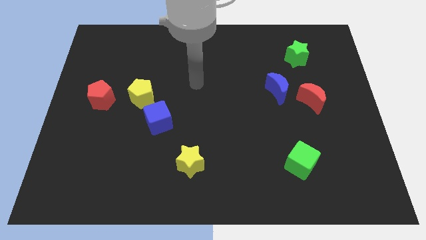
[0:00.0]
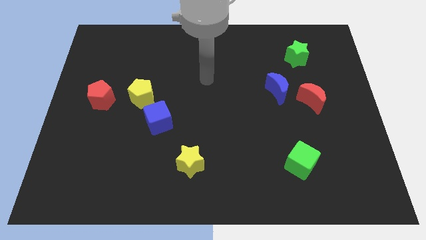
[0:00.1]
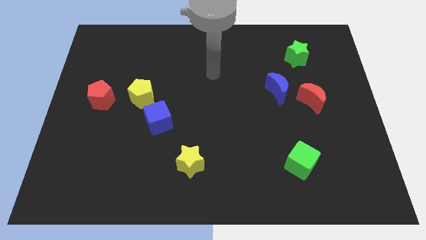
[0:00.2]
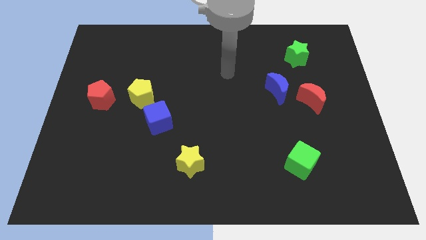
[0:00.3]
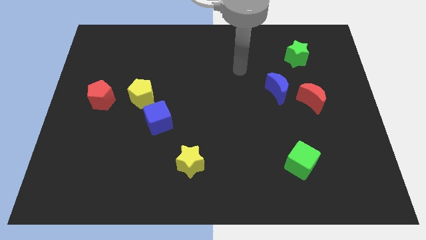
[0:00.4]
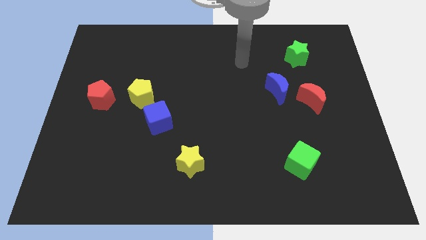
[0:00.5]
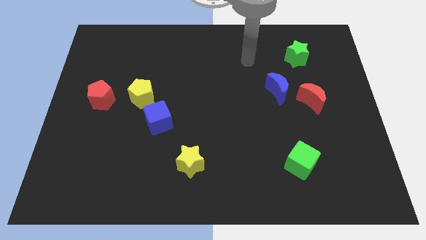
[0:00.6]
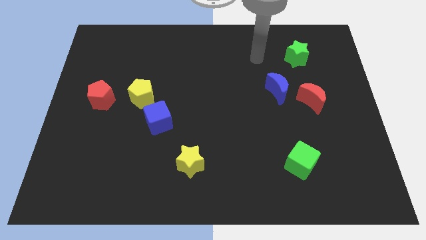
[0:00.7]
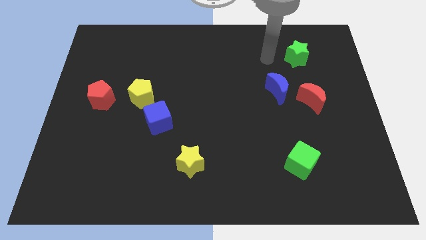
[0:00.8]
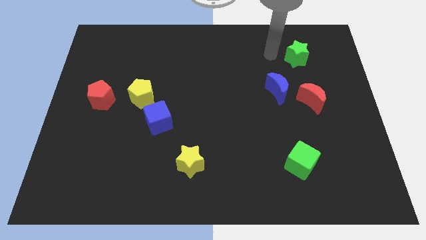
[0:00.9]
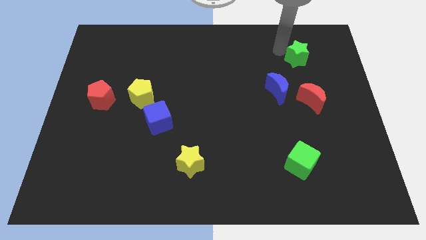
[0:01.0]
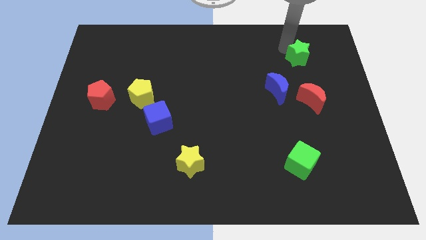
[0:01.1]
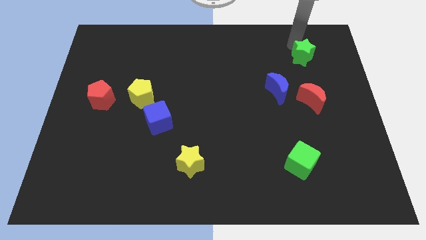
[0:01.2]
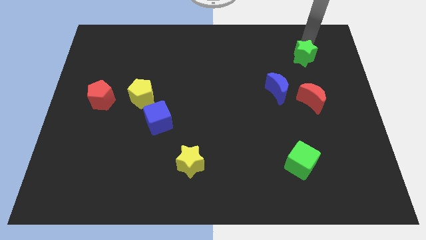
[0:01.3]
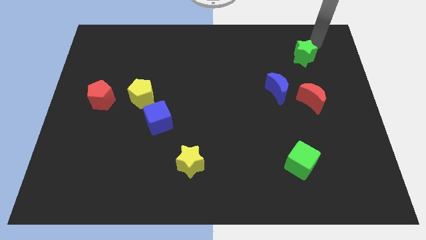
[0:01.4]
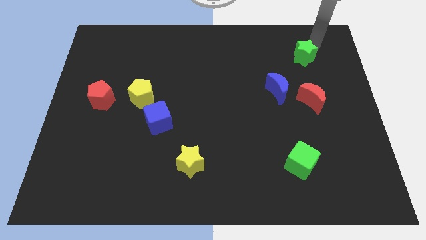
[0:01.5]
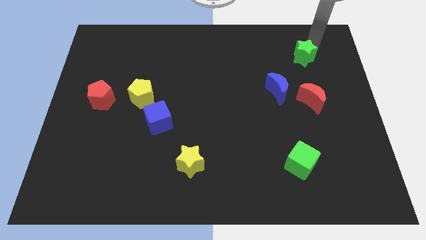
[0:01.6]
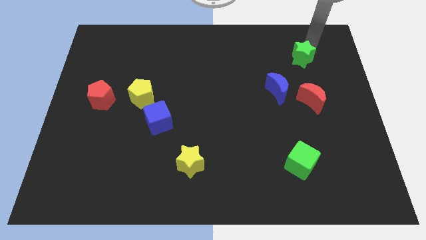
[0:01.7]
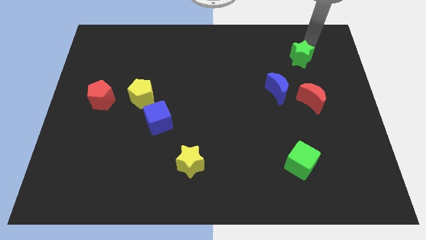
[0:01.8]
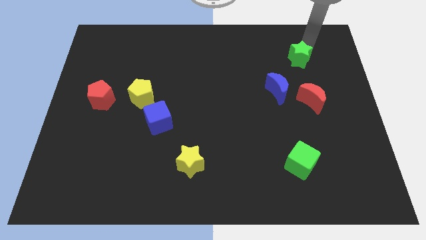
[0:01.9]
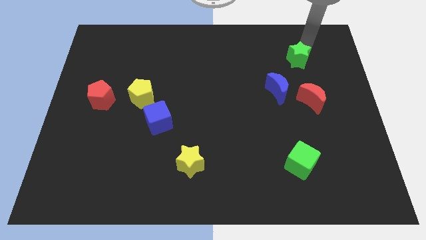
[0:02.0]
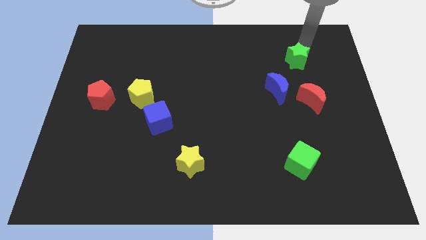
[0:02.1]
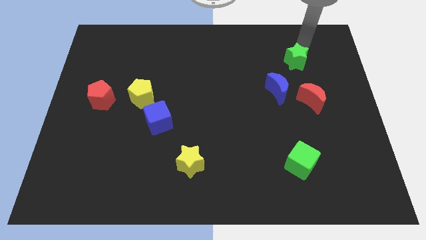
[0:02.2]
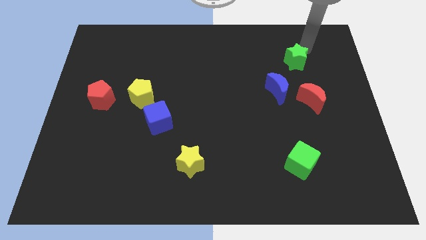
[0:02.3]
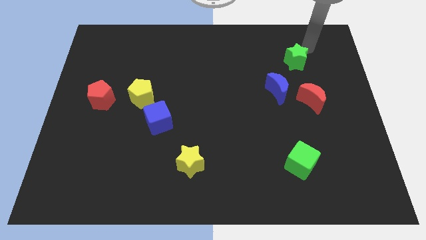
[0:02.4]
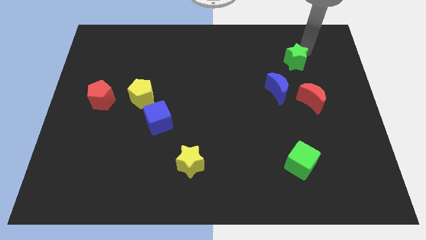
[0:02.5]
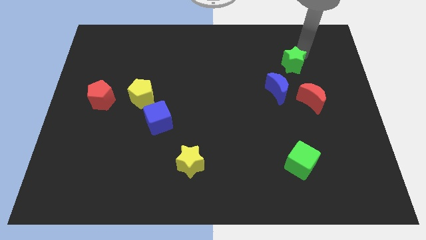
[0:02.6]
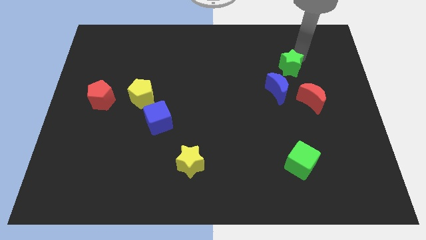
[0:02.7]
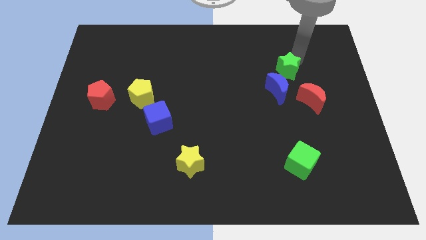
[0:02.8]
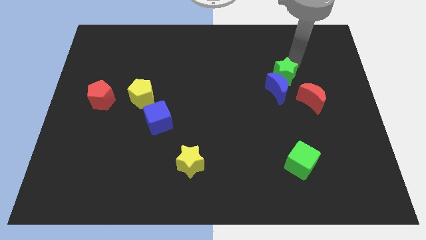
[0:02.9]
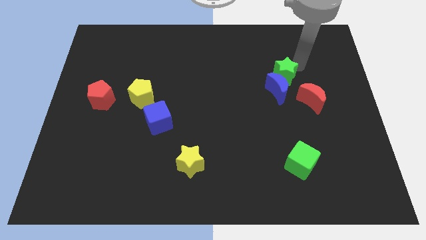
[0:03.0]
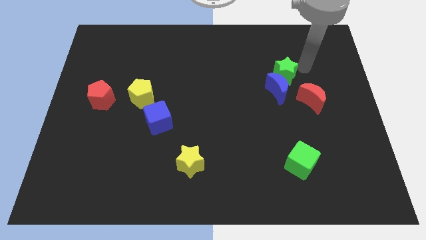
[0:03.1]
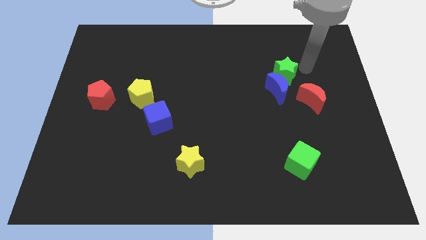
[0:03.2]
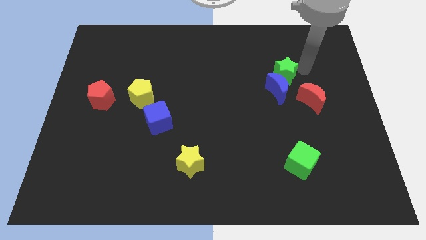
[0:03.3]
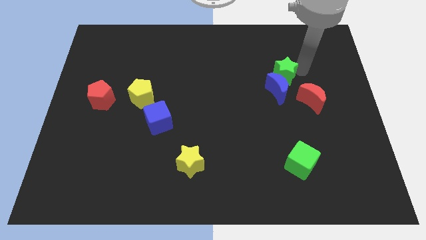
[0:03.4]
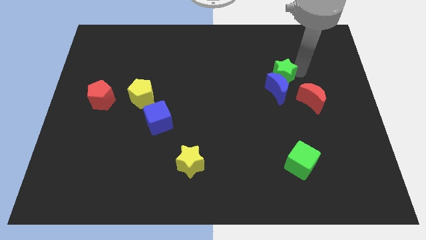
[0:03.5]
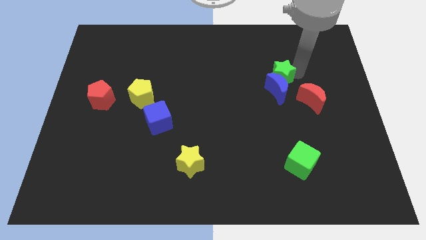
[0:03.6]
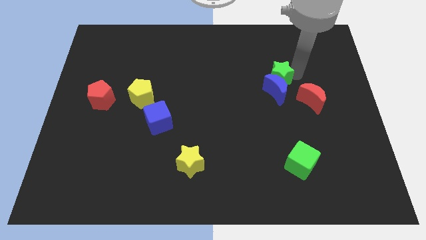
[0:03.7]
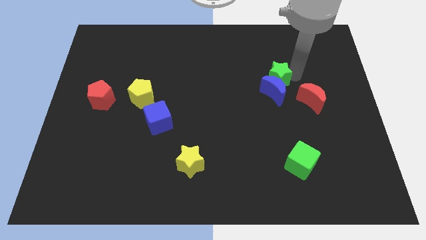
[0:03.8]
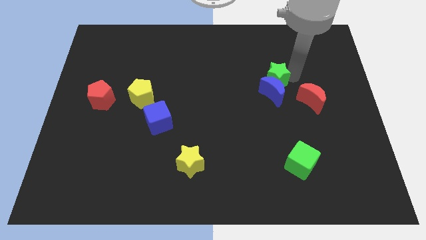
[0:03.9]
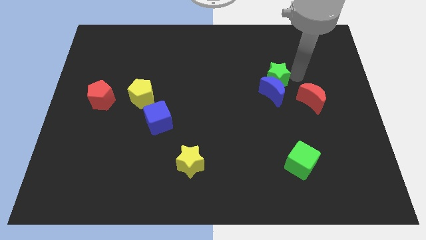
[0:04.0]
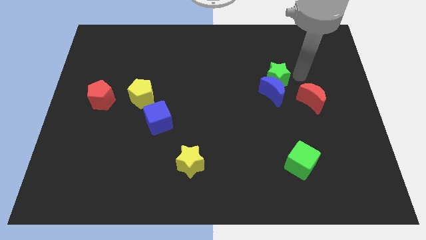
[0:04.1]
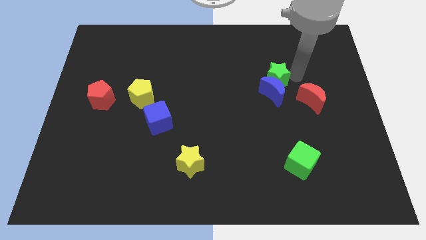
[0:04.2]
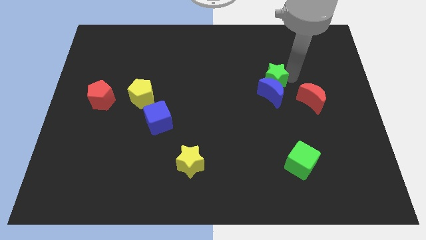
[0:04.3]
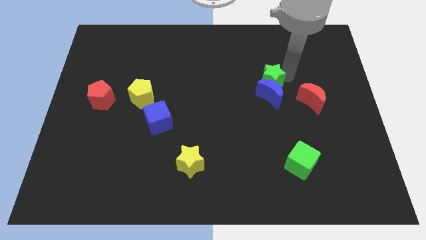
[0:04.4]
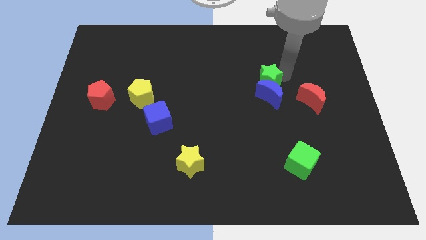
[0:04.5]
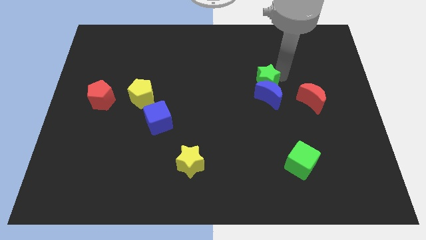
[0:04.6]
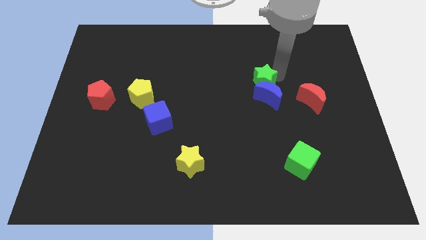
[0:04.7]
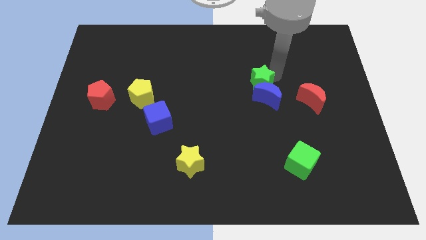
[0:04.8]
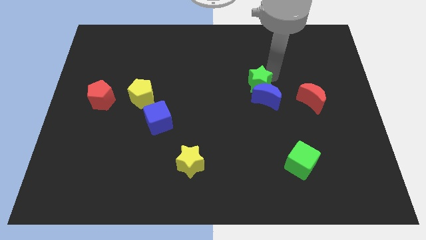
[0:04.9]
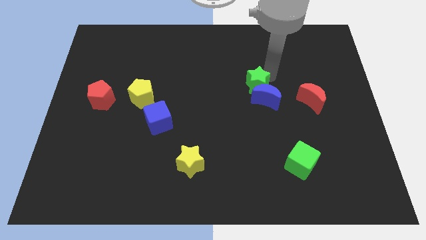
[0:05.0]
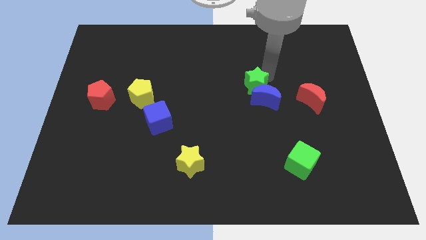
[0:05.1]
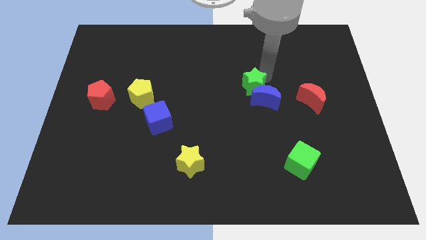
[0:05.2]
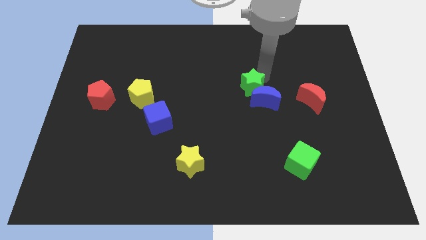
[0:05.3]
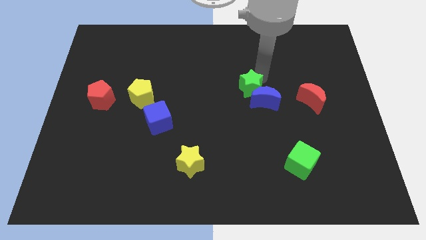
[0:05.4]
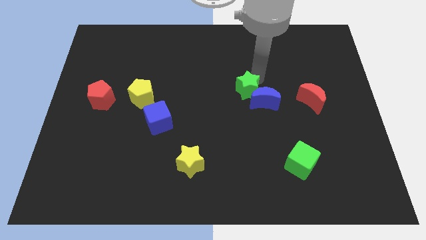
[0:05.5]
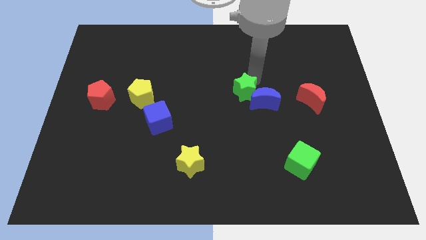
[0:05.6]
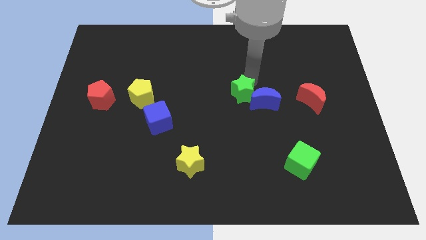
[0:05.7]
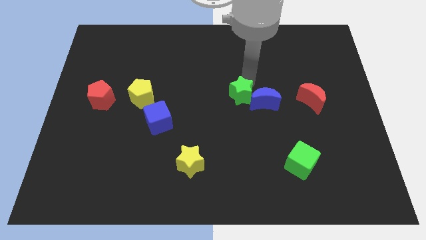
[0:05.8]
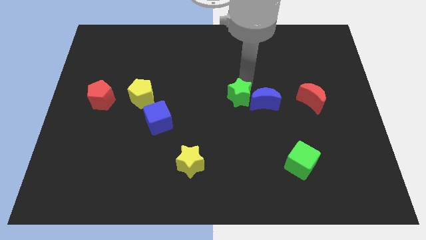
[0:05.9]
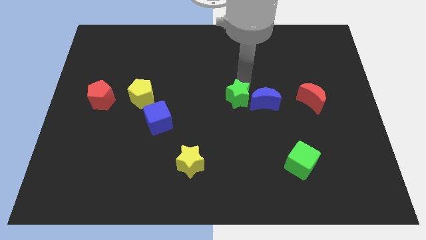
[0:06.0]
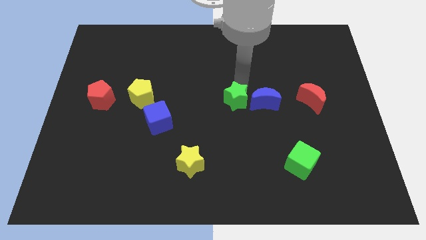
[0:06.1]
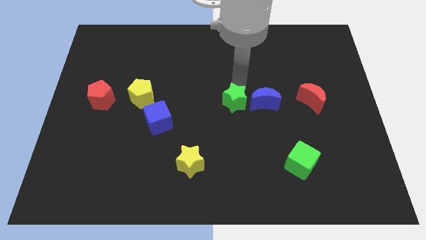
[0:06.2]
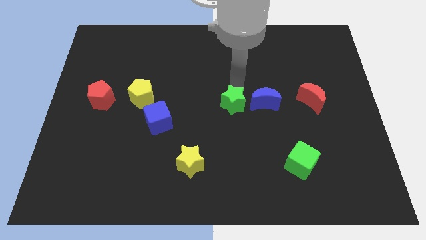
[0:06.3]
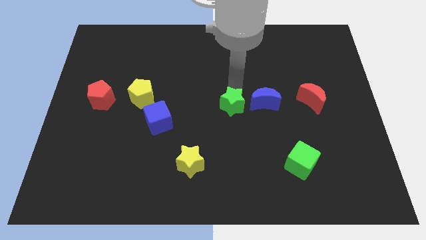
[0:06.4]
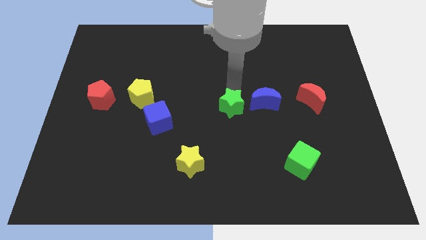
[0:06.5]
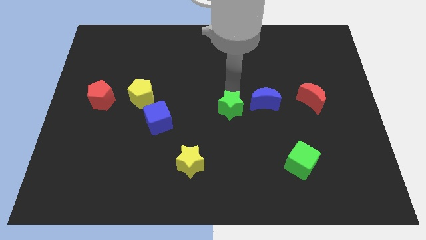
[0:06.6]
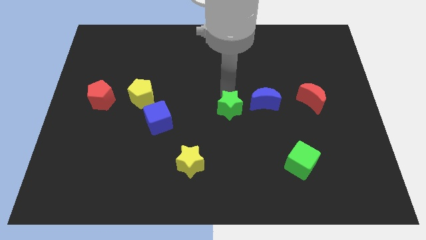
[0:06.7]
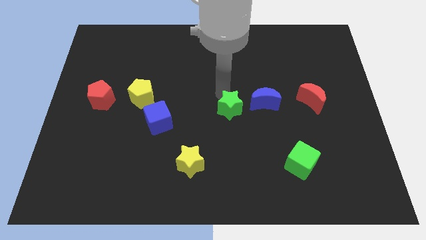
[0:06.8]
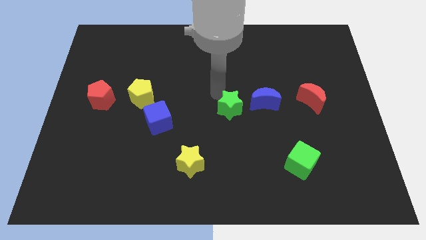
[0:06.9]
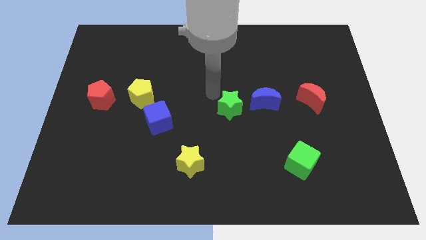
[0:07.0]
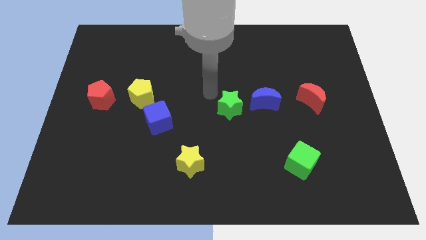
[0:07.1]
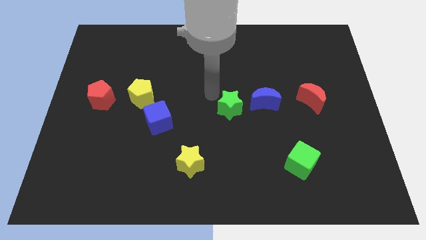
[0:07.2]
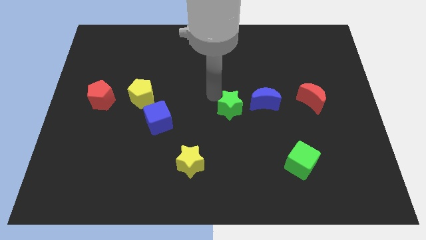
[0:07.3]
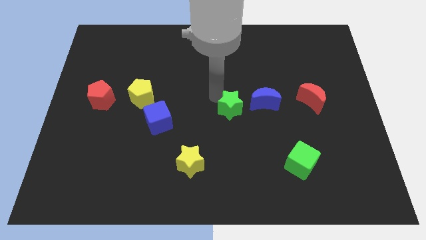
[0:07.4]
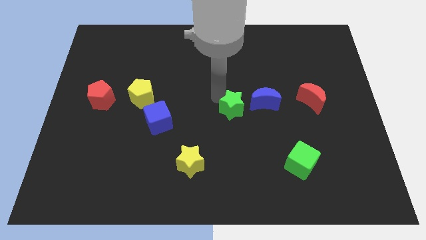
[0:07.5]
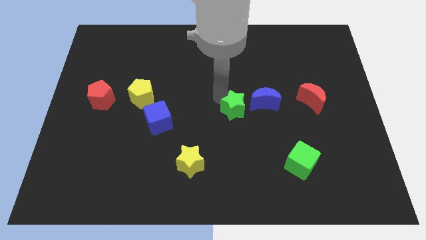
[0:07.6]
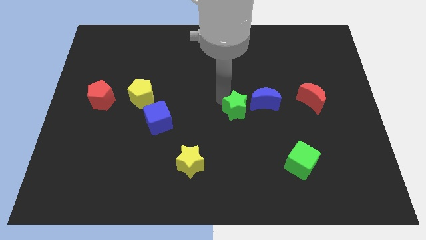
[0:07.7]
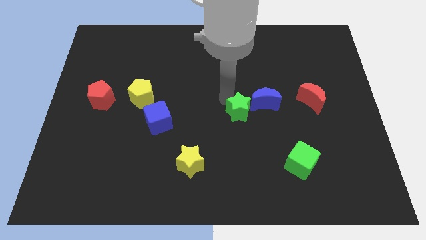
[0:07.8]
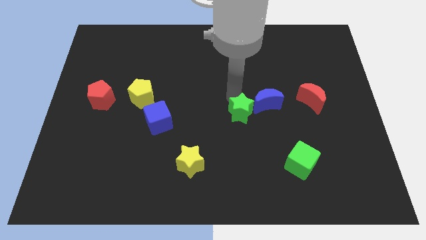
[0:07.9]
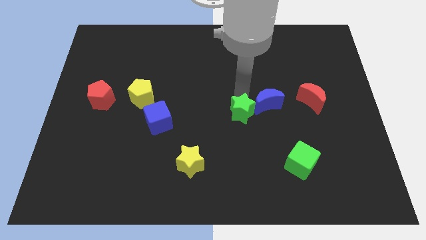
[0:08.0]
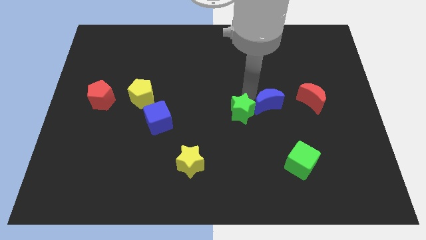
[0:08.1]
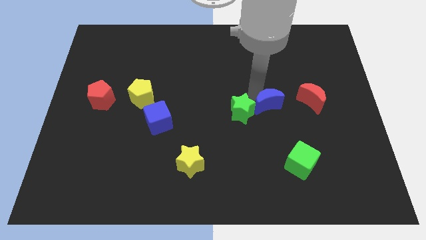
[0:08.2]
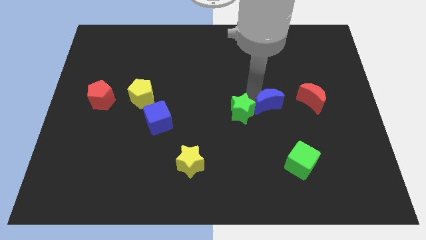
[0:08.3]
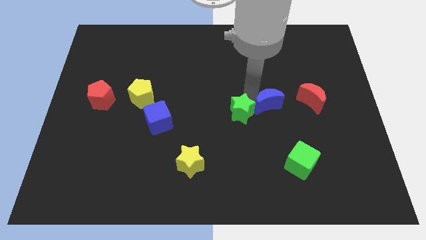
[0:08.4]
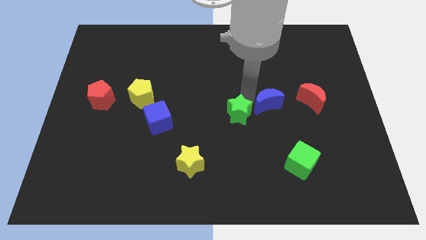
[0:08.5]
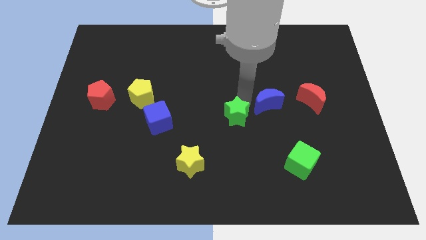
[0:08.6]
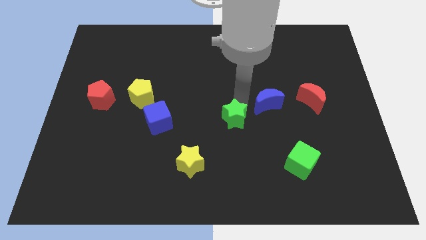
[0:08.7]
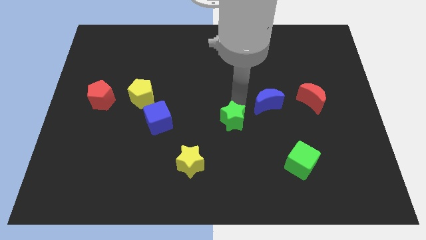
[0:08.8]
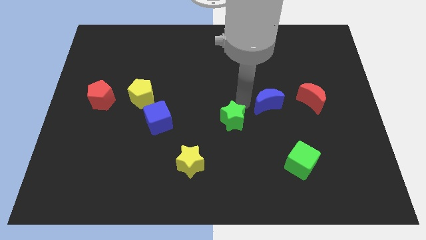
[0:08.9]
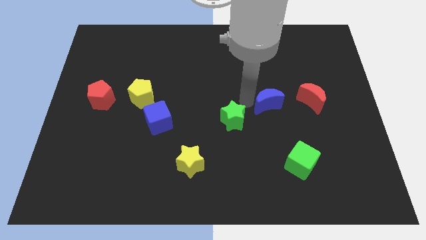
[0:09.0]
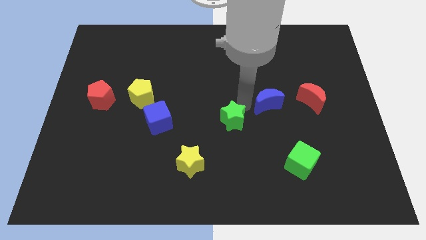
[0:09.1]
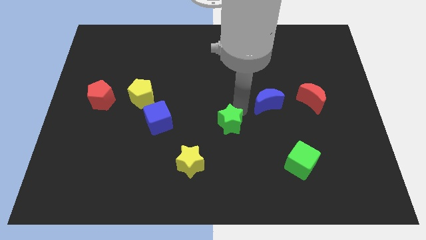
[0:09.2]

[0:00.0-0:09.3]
put the green star diagonally up and to the right of the yellow star
